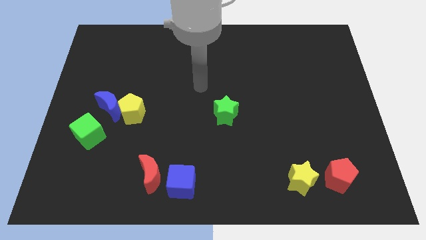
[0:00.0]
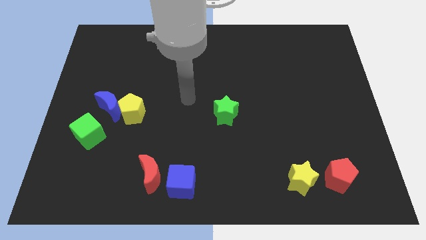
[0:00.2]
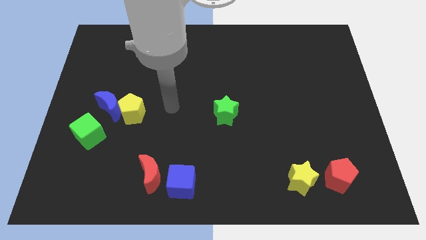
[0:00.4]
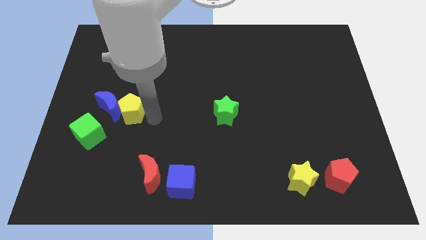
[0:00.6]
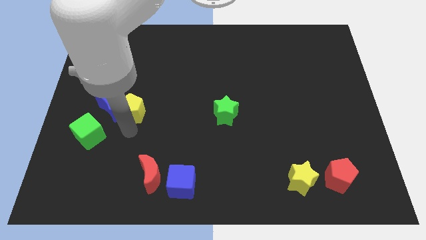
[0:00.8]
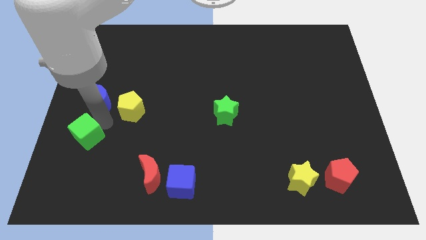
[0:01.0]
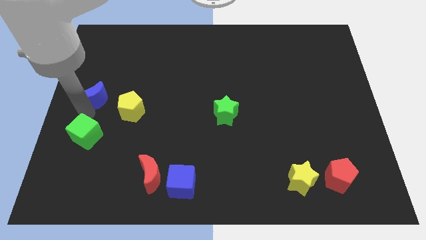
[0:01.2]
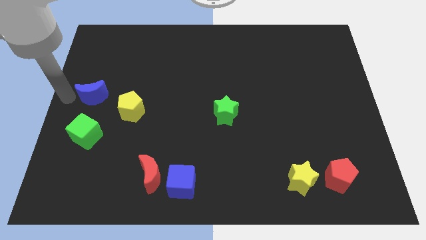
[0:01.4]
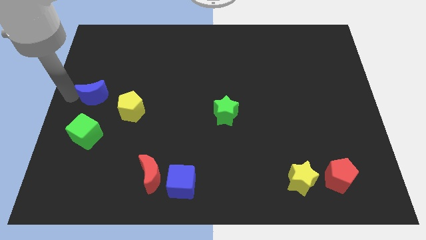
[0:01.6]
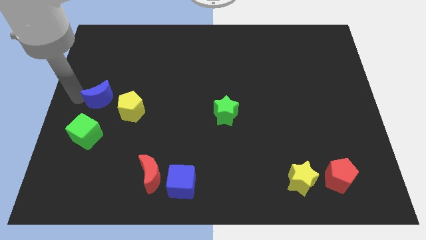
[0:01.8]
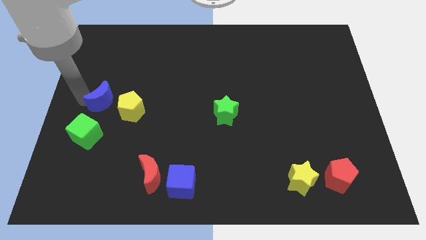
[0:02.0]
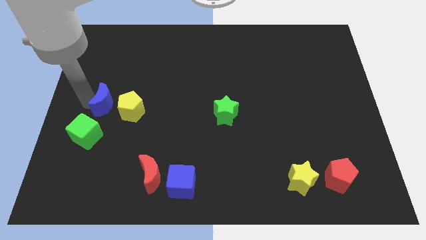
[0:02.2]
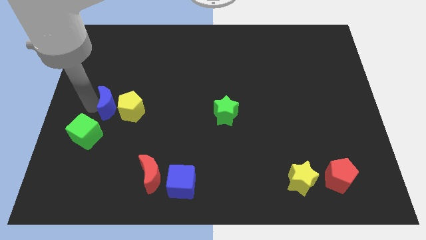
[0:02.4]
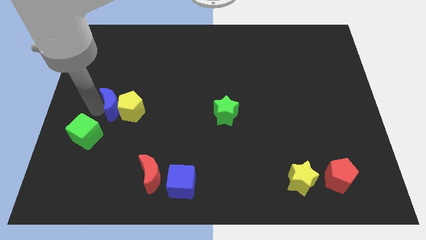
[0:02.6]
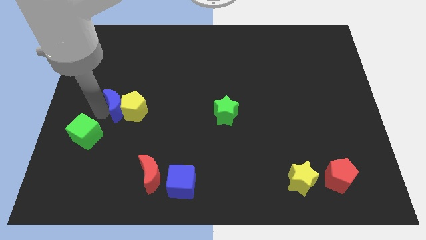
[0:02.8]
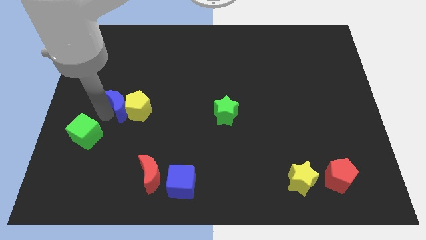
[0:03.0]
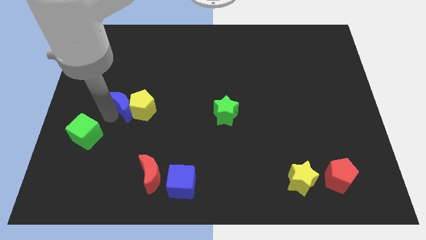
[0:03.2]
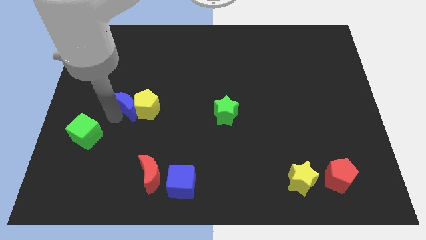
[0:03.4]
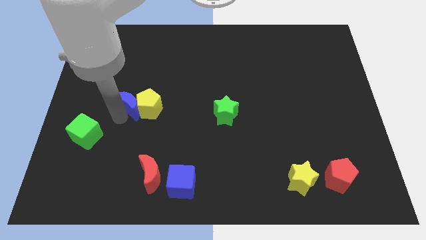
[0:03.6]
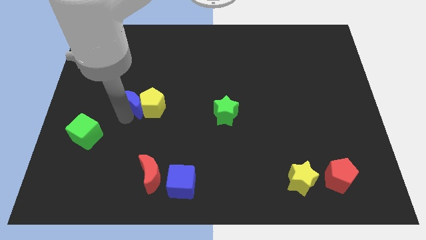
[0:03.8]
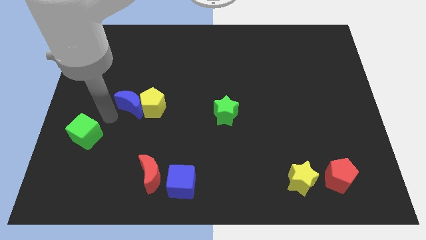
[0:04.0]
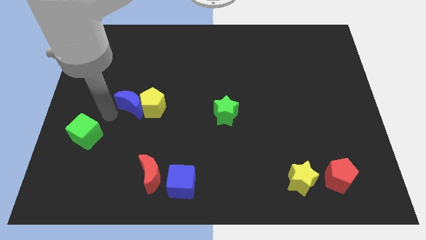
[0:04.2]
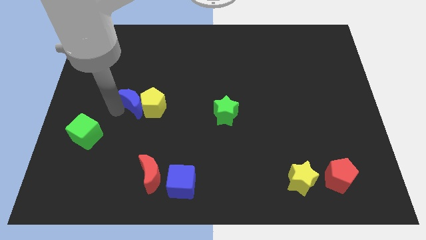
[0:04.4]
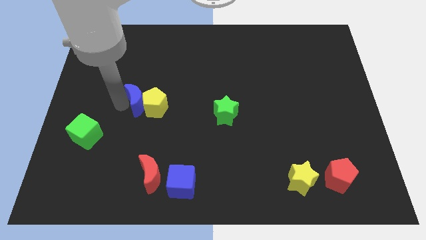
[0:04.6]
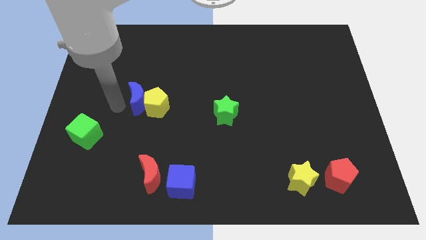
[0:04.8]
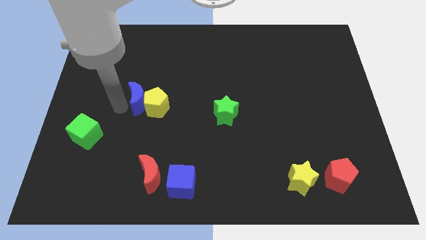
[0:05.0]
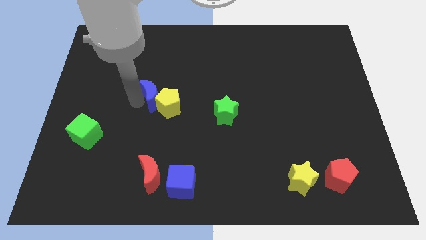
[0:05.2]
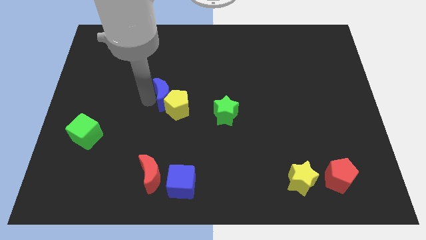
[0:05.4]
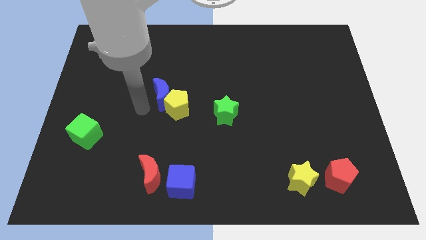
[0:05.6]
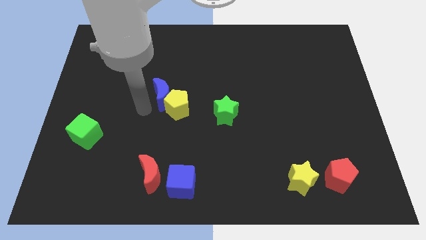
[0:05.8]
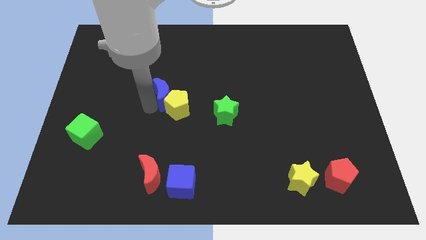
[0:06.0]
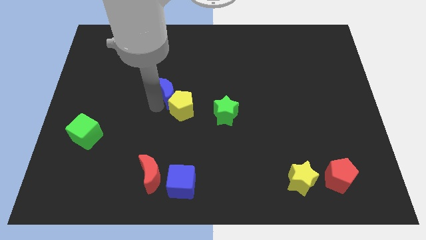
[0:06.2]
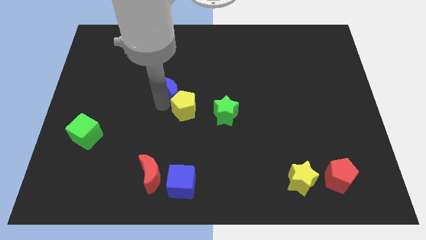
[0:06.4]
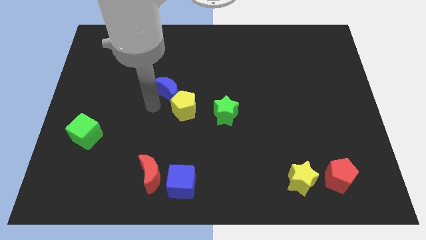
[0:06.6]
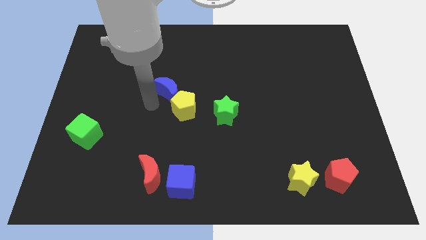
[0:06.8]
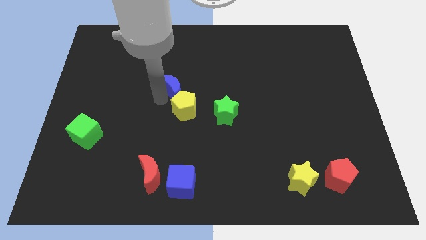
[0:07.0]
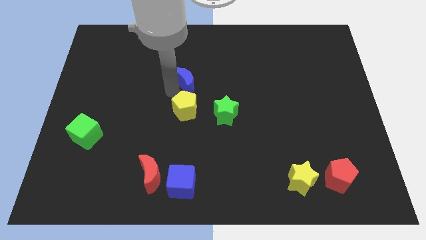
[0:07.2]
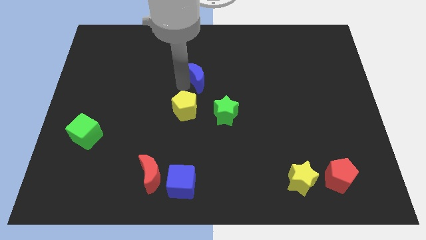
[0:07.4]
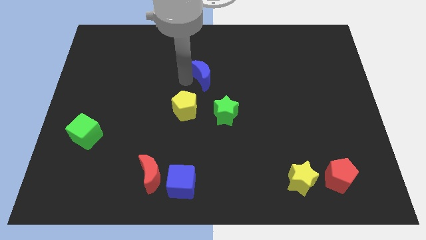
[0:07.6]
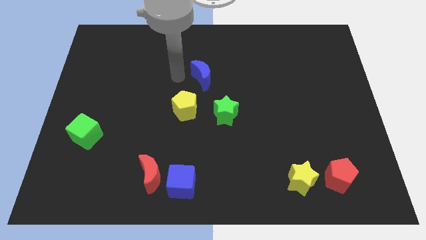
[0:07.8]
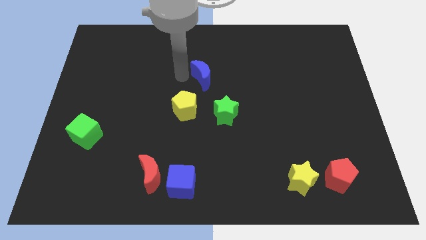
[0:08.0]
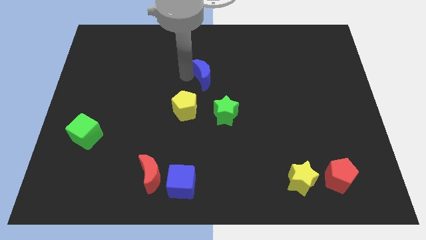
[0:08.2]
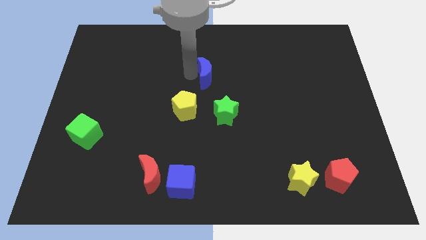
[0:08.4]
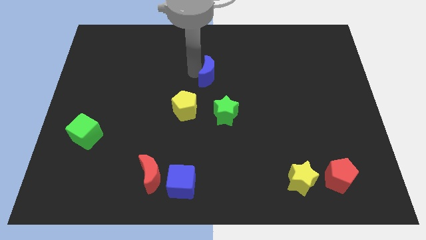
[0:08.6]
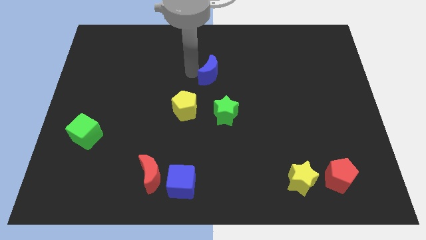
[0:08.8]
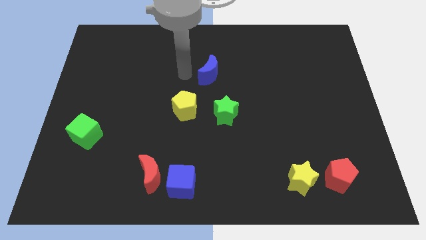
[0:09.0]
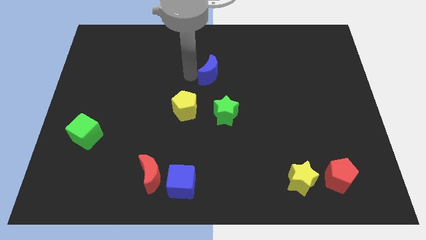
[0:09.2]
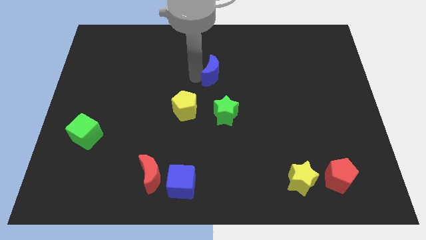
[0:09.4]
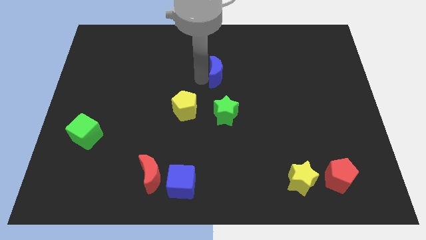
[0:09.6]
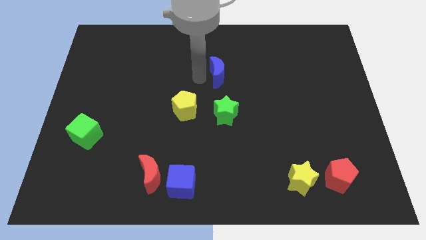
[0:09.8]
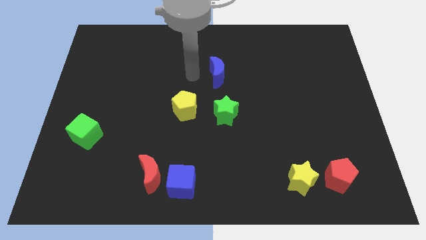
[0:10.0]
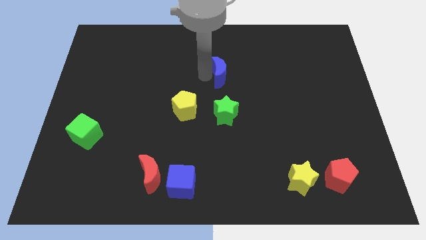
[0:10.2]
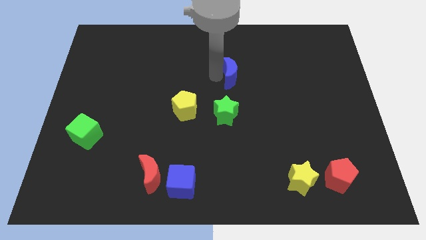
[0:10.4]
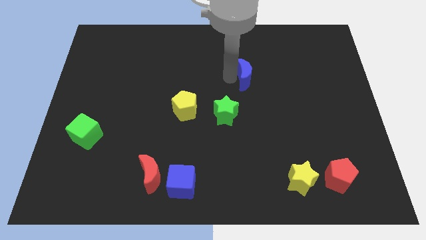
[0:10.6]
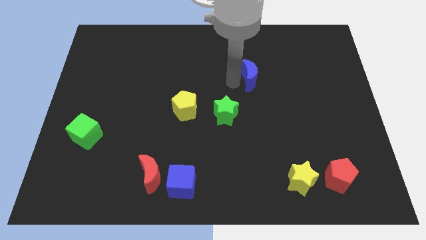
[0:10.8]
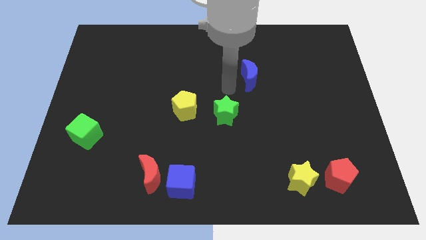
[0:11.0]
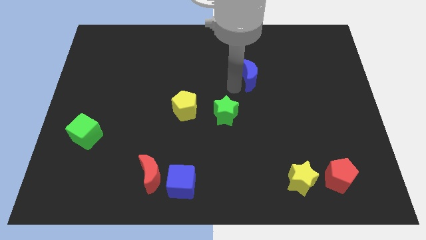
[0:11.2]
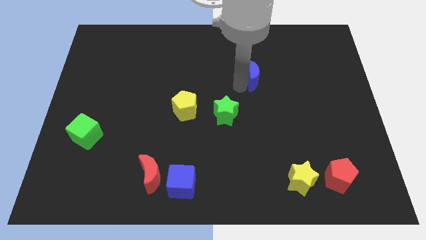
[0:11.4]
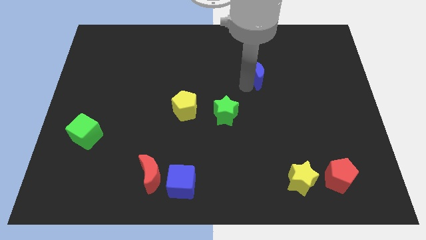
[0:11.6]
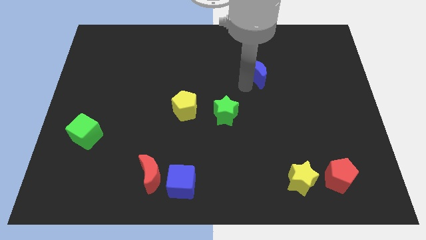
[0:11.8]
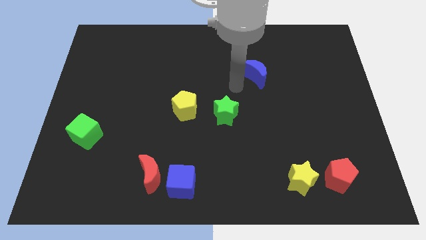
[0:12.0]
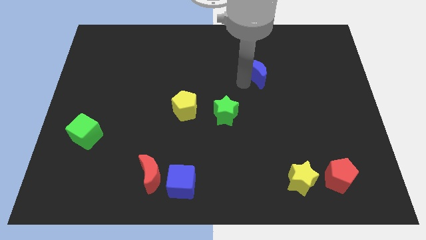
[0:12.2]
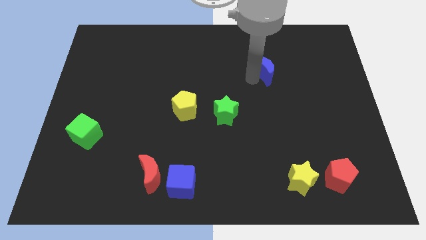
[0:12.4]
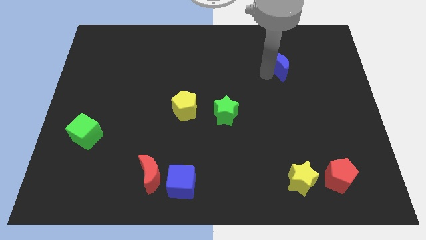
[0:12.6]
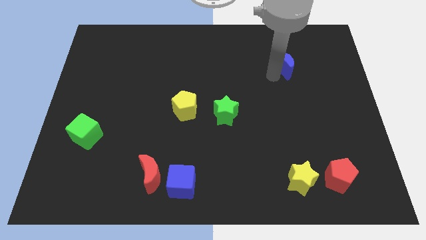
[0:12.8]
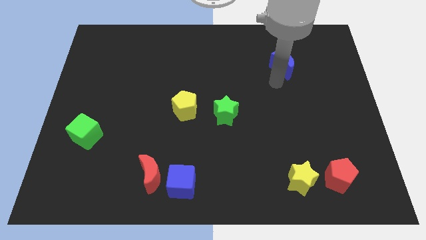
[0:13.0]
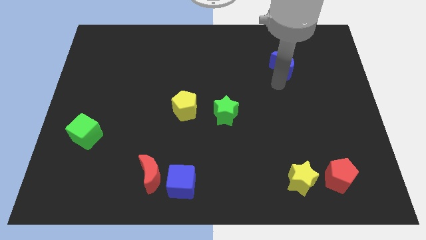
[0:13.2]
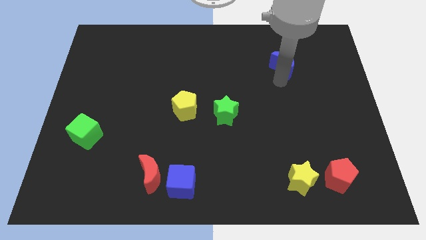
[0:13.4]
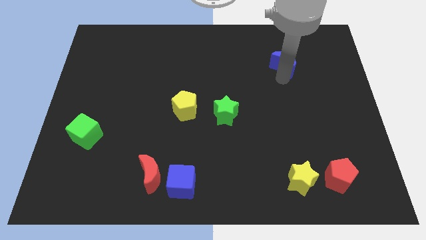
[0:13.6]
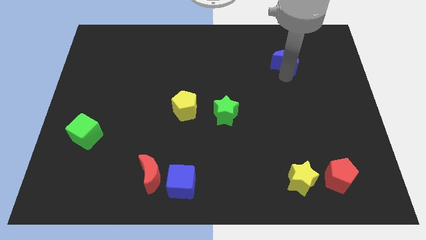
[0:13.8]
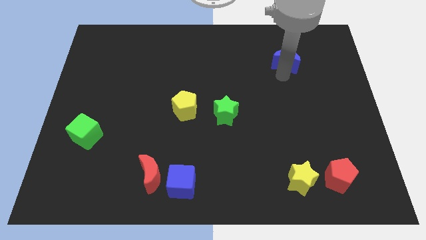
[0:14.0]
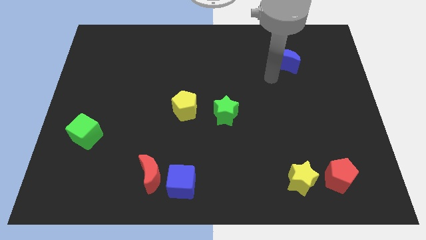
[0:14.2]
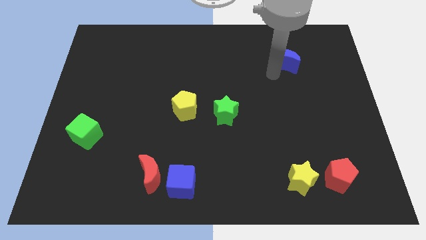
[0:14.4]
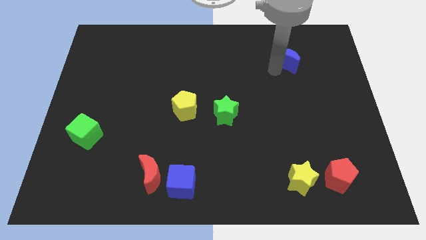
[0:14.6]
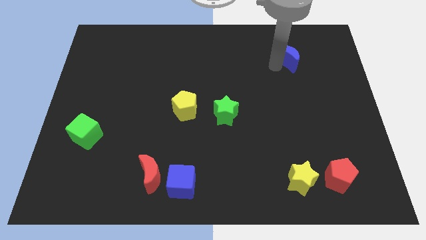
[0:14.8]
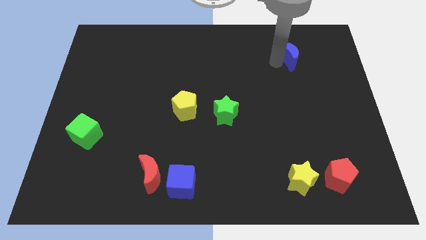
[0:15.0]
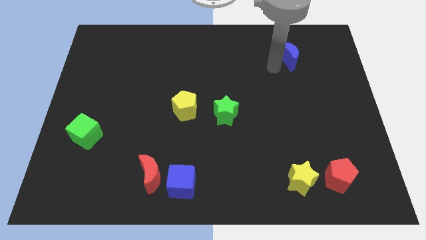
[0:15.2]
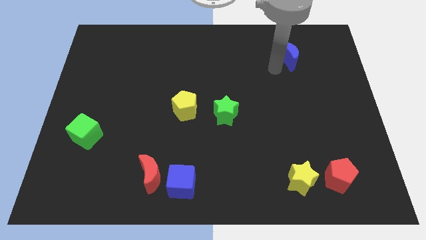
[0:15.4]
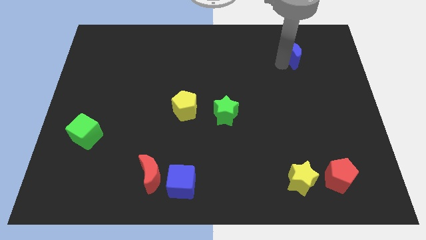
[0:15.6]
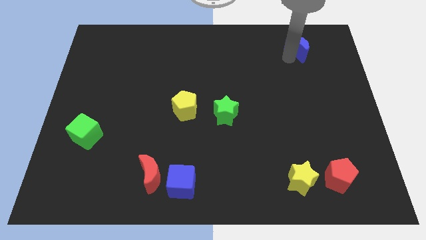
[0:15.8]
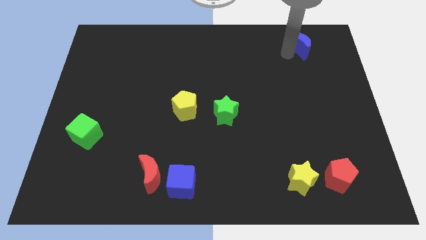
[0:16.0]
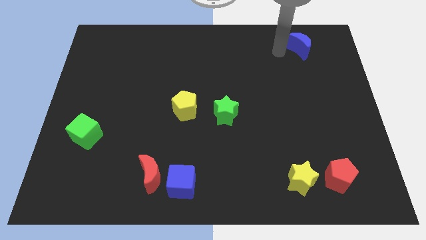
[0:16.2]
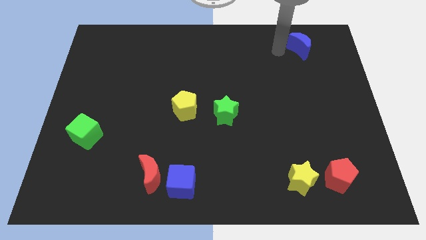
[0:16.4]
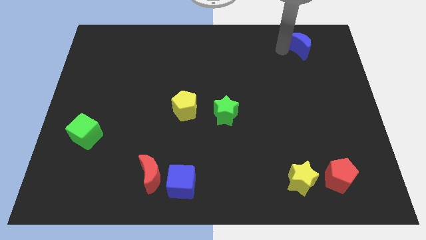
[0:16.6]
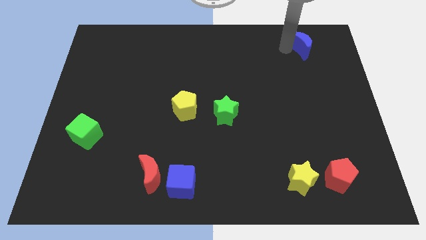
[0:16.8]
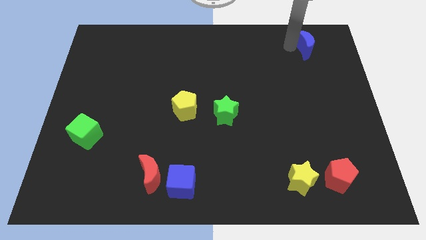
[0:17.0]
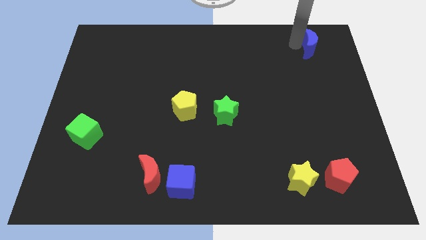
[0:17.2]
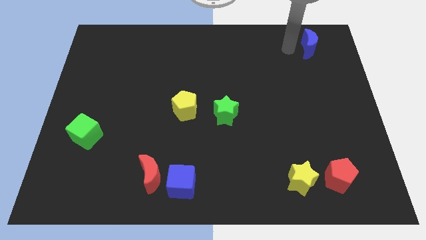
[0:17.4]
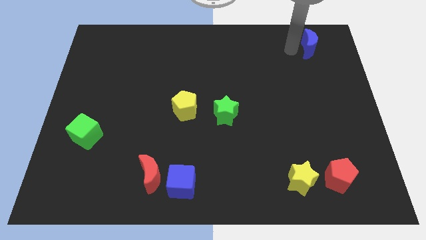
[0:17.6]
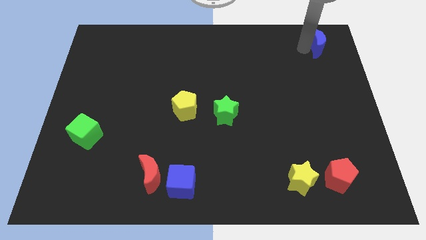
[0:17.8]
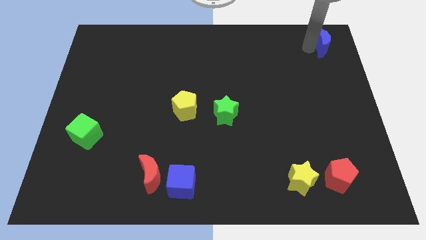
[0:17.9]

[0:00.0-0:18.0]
slide the blue moon to the top right of the board
